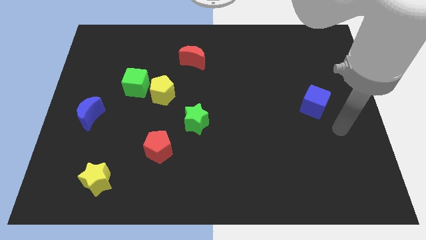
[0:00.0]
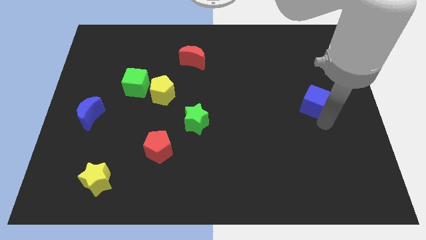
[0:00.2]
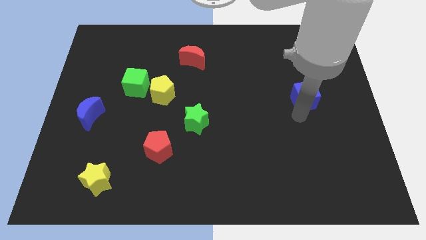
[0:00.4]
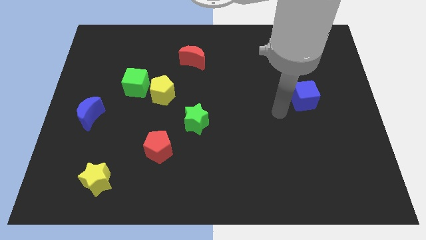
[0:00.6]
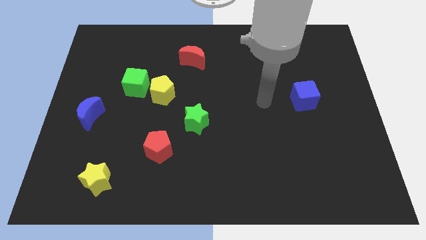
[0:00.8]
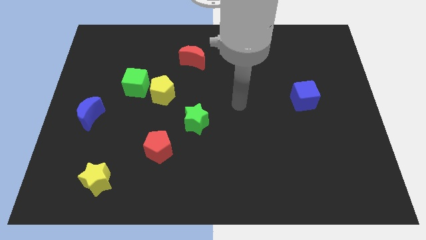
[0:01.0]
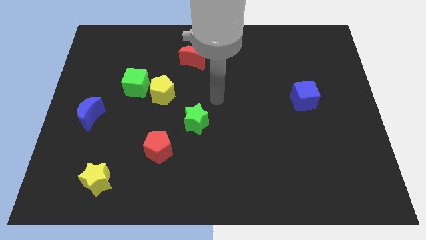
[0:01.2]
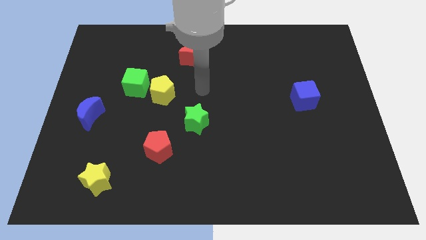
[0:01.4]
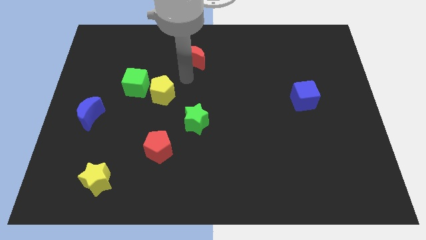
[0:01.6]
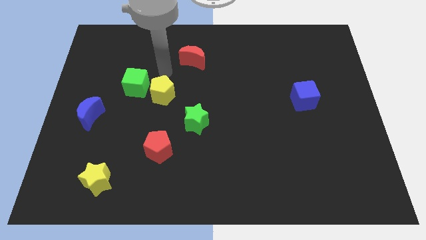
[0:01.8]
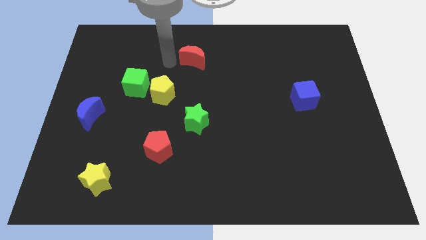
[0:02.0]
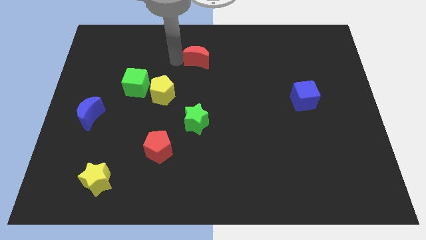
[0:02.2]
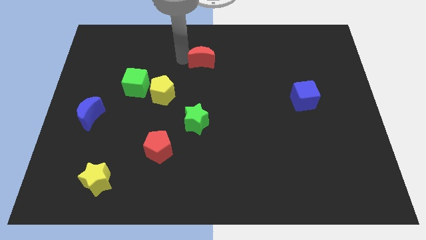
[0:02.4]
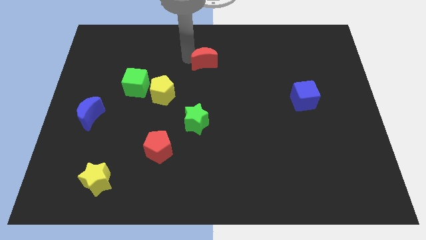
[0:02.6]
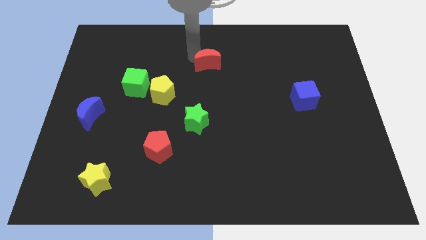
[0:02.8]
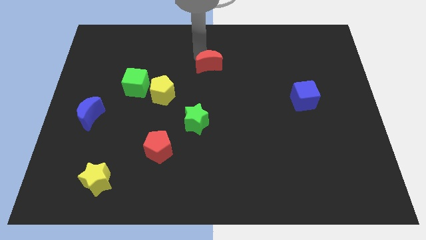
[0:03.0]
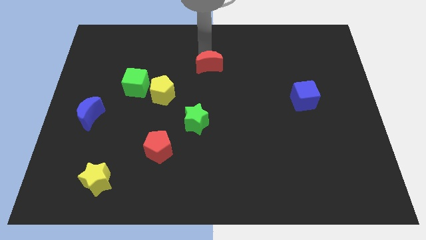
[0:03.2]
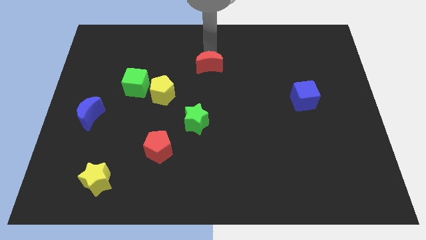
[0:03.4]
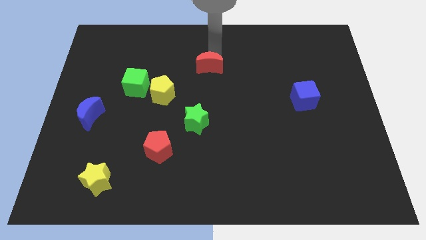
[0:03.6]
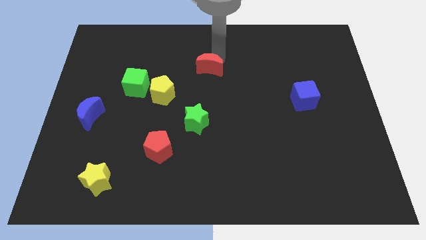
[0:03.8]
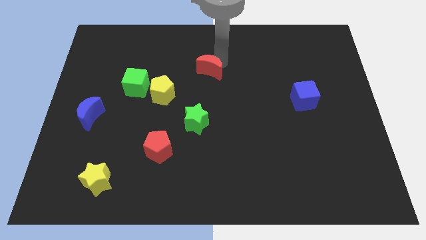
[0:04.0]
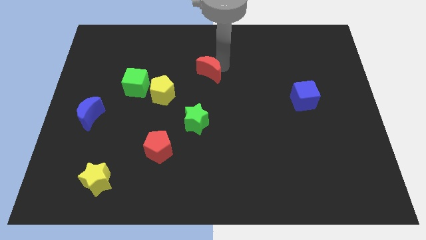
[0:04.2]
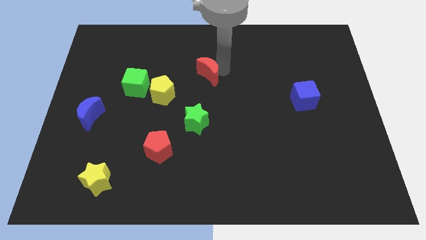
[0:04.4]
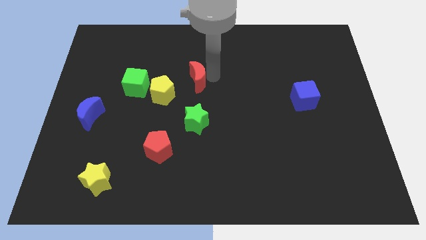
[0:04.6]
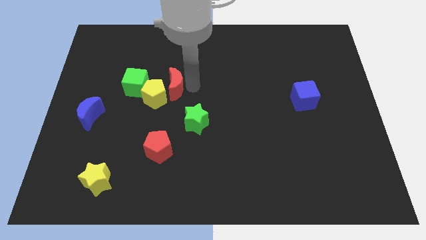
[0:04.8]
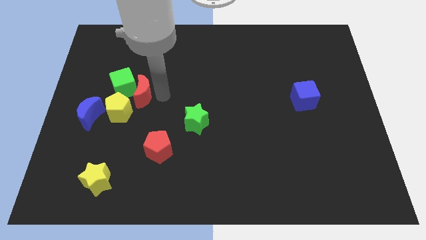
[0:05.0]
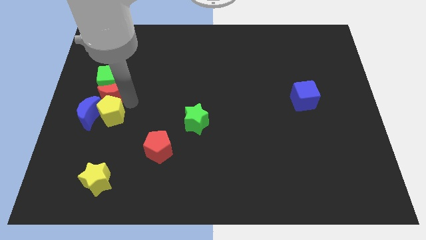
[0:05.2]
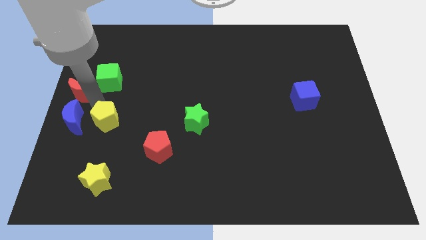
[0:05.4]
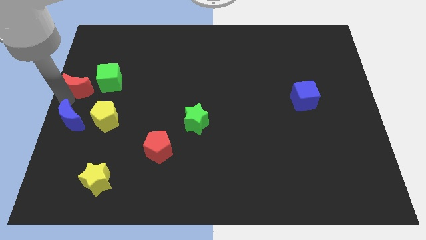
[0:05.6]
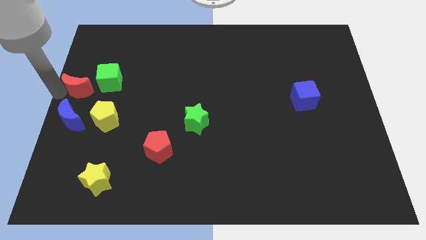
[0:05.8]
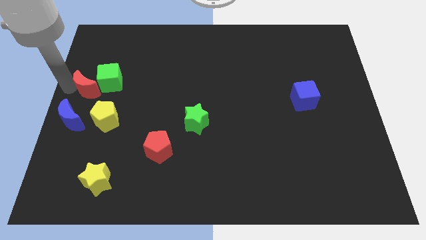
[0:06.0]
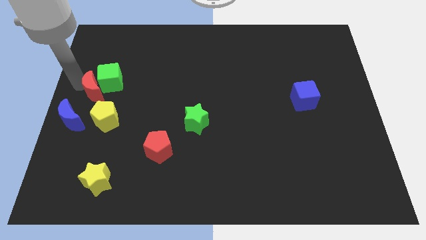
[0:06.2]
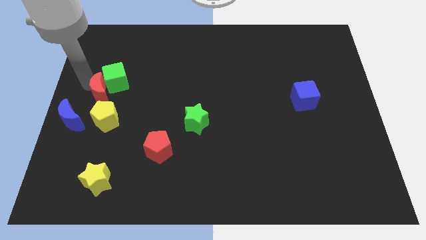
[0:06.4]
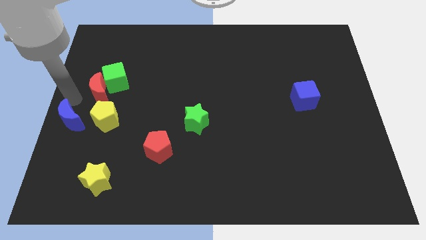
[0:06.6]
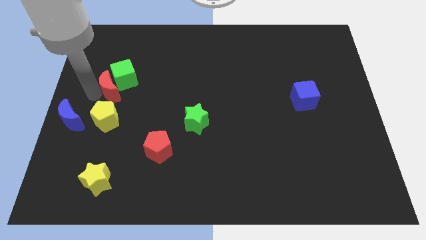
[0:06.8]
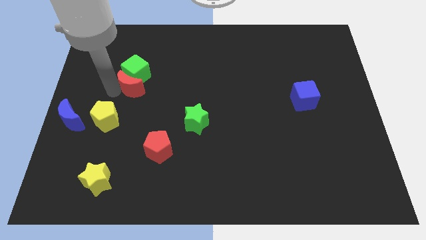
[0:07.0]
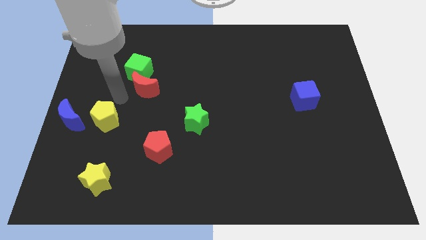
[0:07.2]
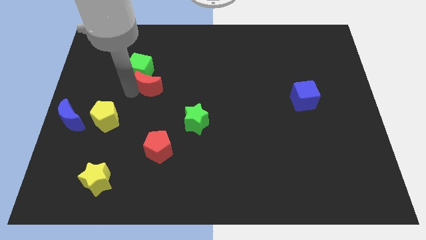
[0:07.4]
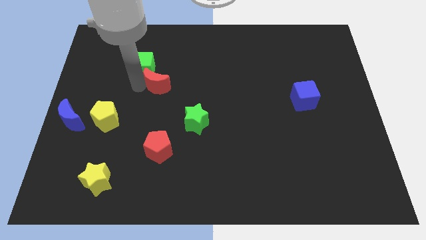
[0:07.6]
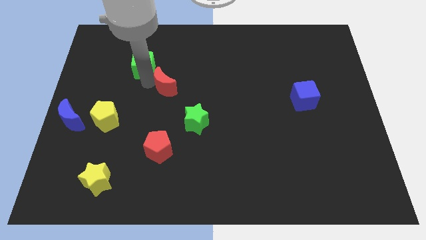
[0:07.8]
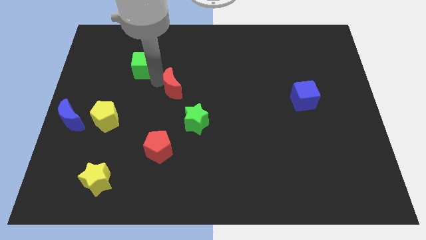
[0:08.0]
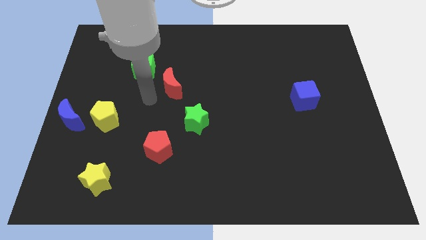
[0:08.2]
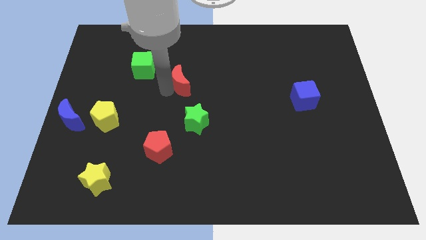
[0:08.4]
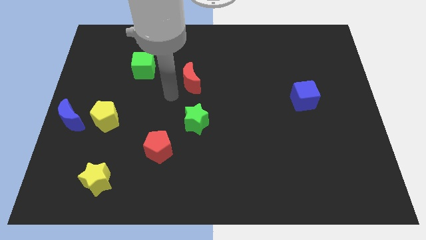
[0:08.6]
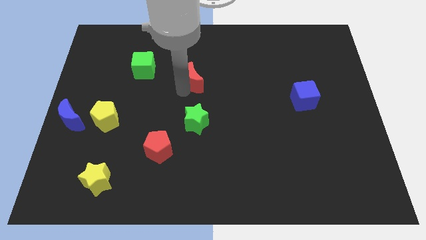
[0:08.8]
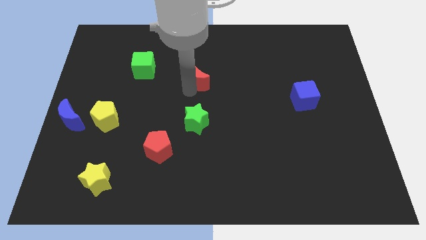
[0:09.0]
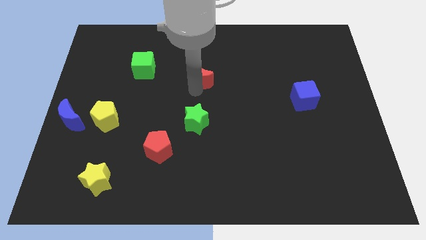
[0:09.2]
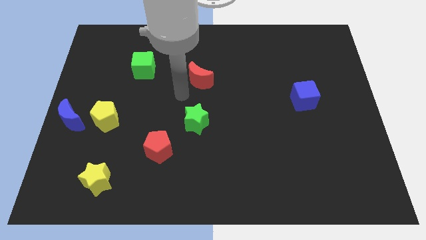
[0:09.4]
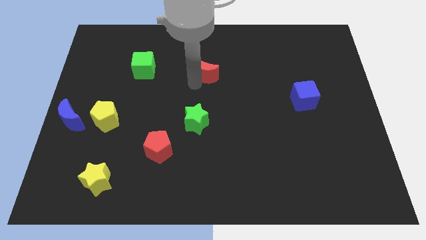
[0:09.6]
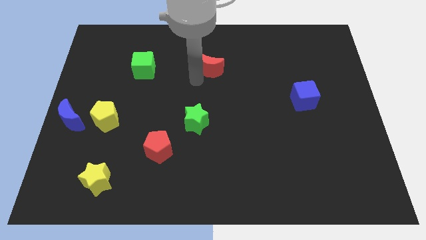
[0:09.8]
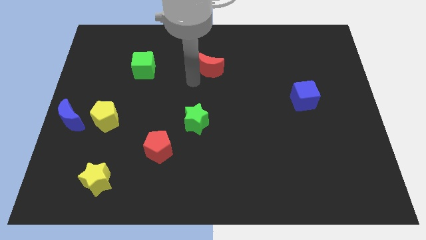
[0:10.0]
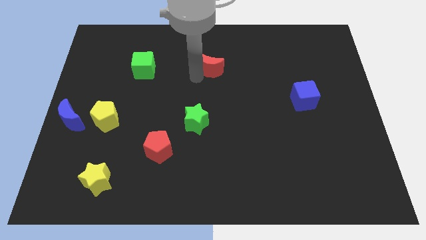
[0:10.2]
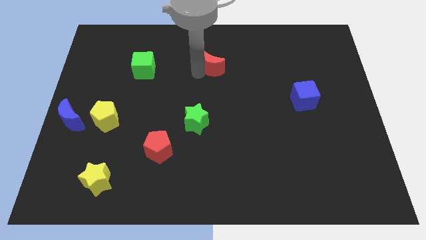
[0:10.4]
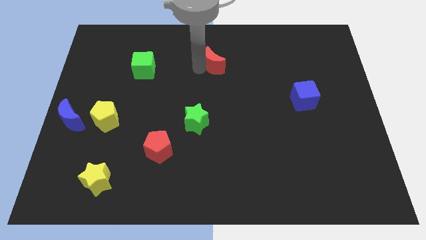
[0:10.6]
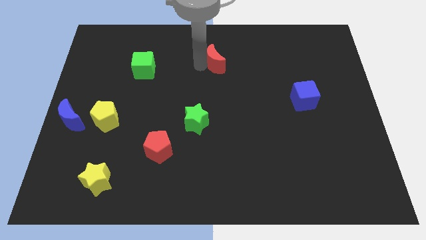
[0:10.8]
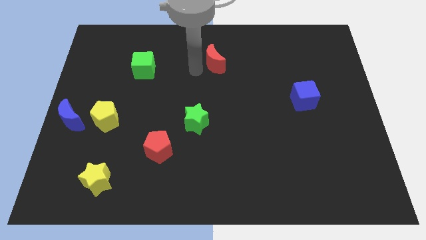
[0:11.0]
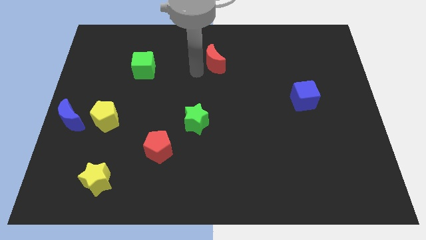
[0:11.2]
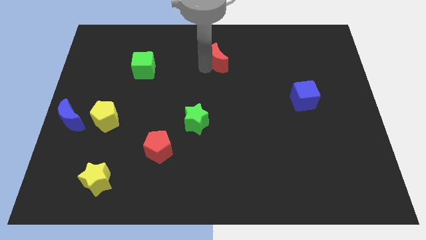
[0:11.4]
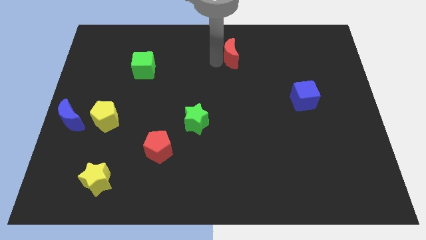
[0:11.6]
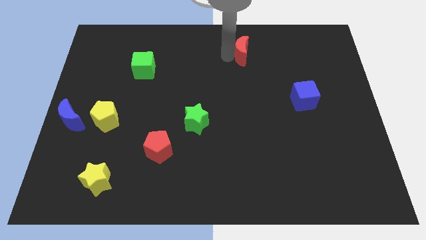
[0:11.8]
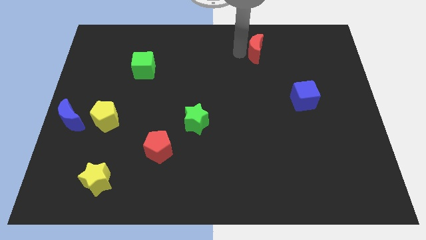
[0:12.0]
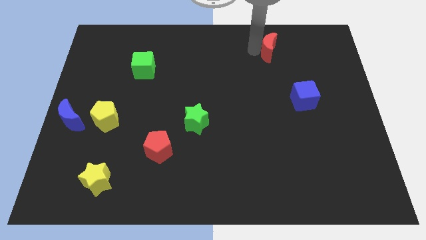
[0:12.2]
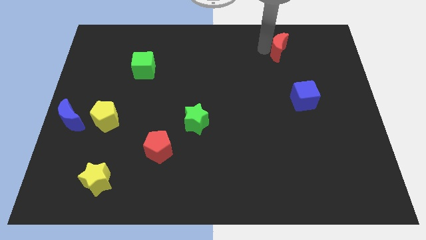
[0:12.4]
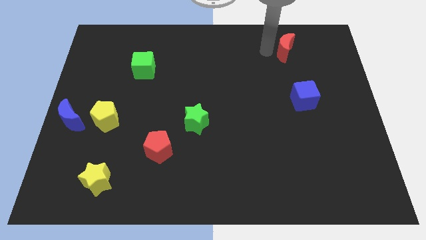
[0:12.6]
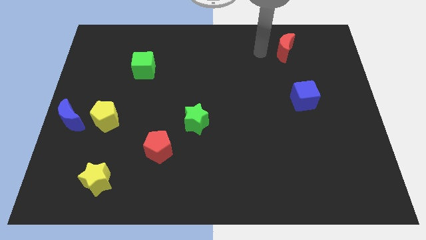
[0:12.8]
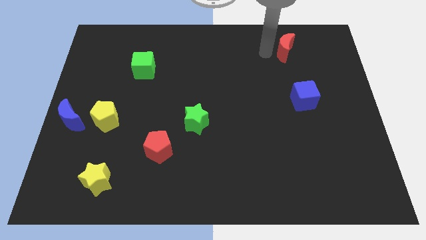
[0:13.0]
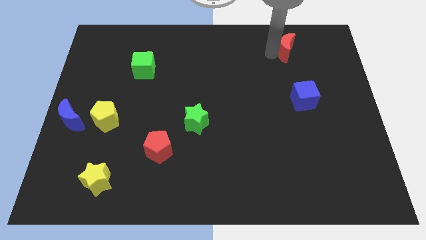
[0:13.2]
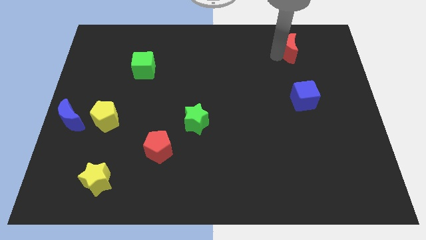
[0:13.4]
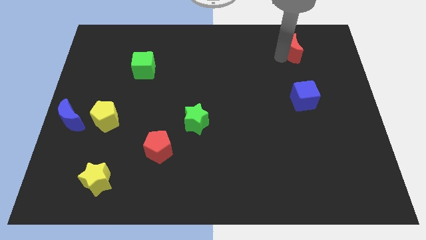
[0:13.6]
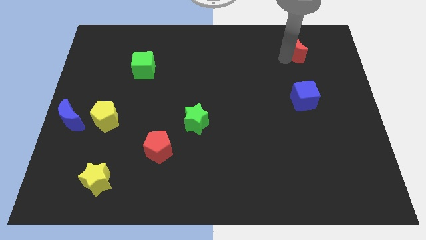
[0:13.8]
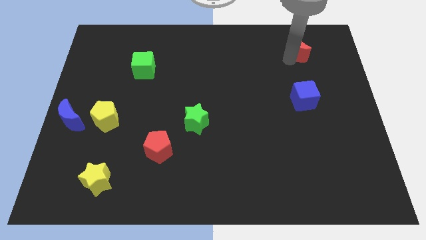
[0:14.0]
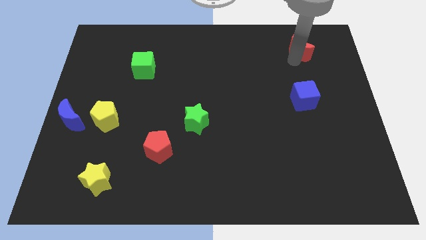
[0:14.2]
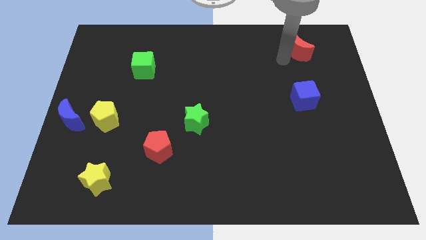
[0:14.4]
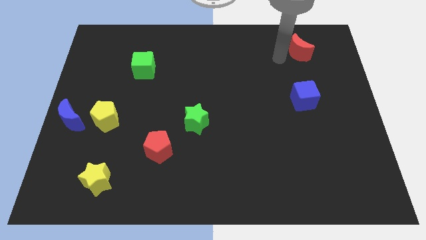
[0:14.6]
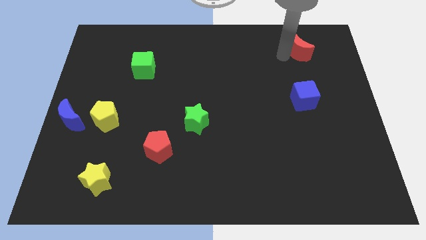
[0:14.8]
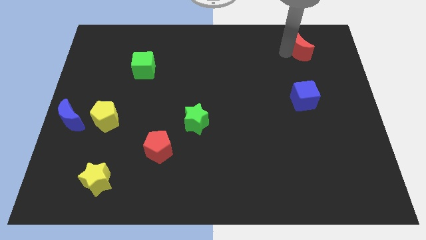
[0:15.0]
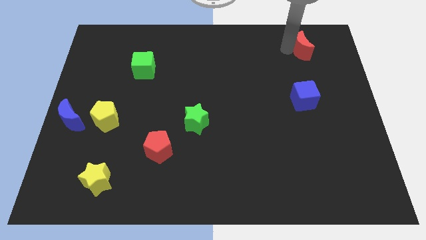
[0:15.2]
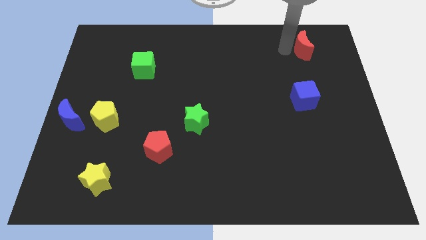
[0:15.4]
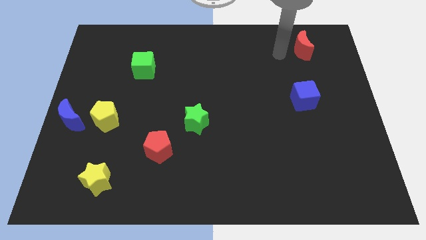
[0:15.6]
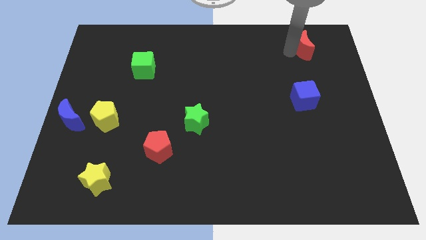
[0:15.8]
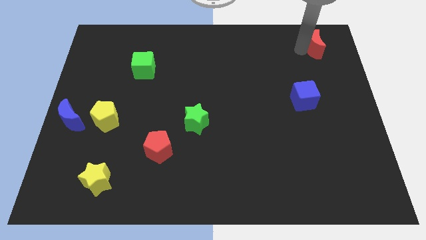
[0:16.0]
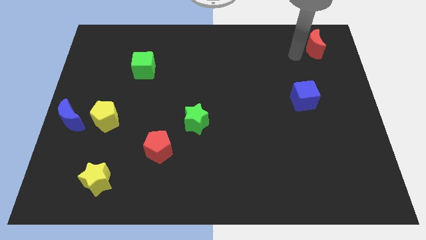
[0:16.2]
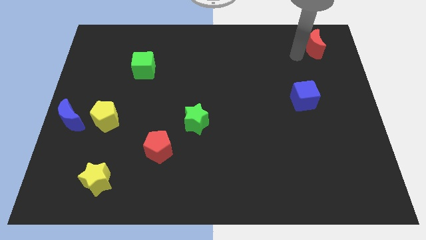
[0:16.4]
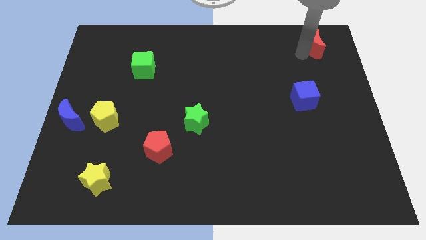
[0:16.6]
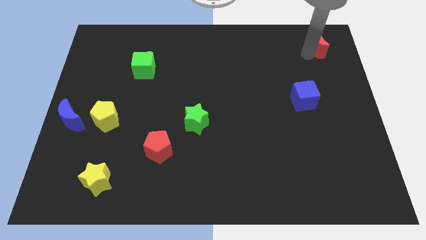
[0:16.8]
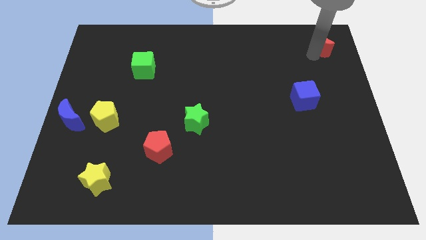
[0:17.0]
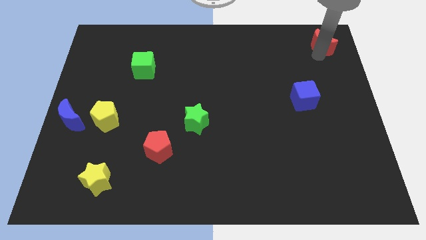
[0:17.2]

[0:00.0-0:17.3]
slide the red moon to the top right of the board
